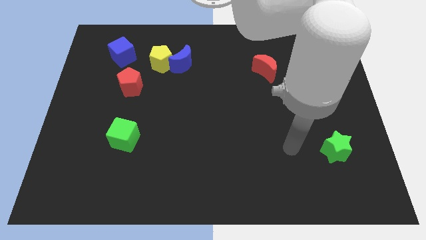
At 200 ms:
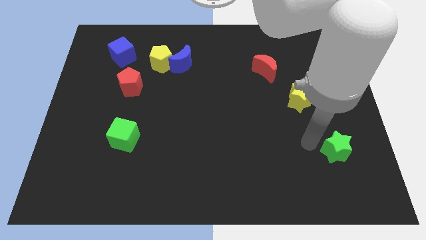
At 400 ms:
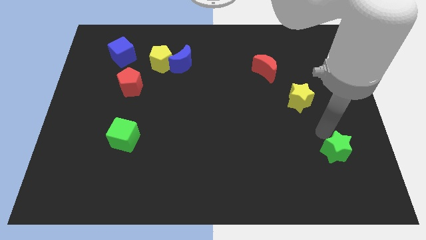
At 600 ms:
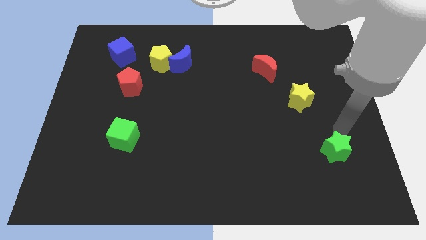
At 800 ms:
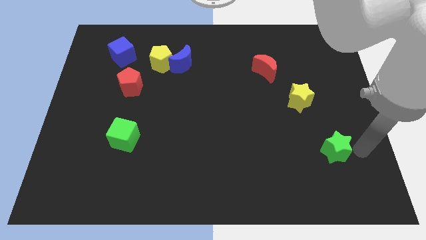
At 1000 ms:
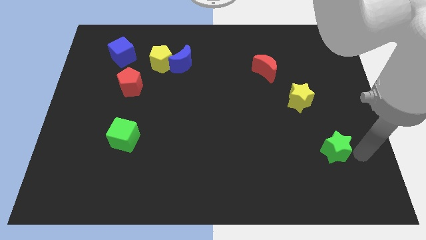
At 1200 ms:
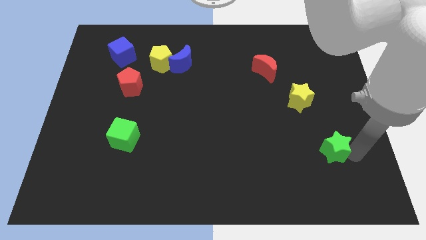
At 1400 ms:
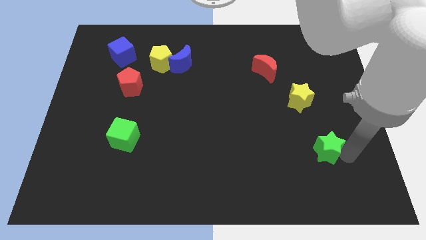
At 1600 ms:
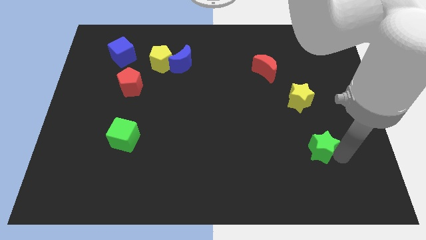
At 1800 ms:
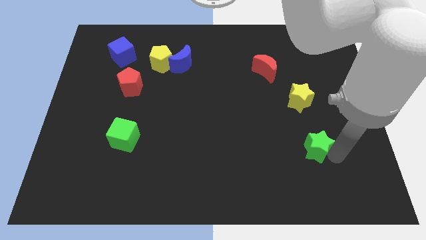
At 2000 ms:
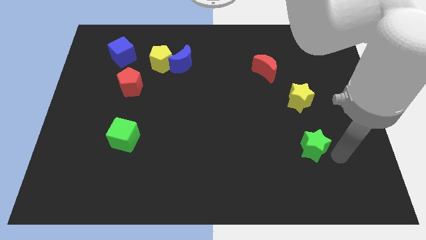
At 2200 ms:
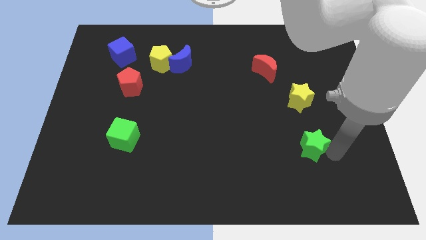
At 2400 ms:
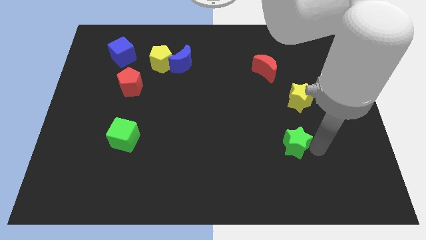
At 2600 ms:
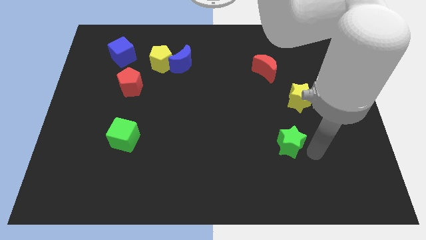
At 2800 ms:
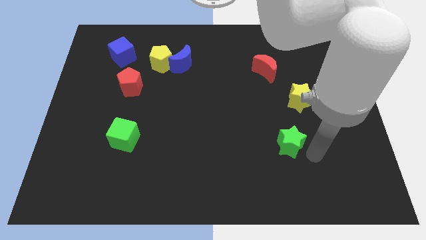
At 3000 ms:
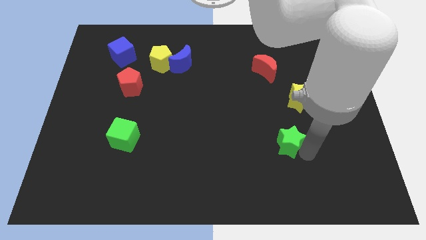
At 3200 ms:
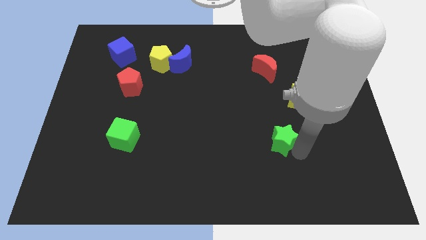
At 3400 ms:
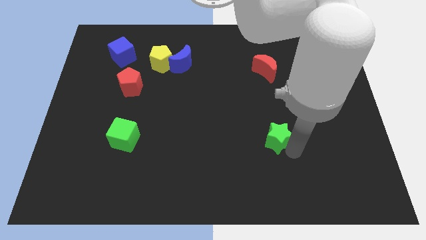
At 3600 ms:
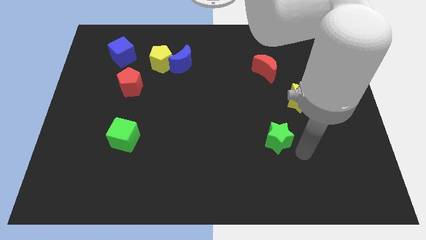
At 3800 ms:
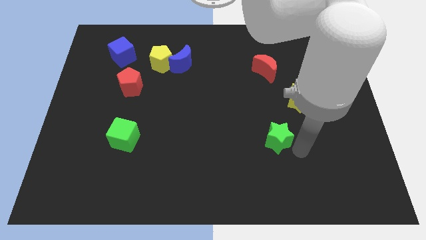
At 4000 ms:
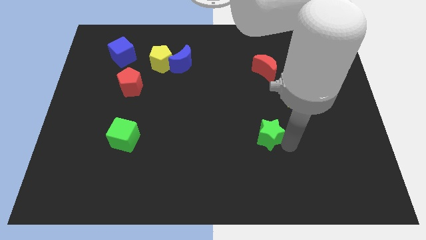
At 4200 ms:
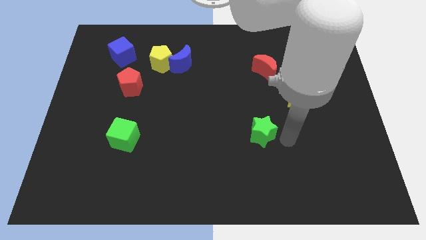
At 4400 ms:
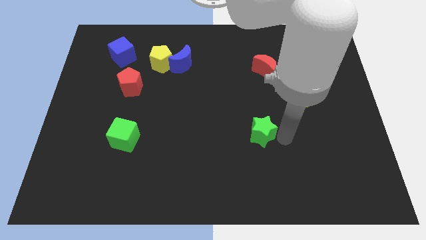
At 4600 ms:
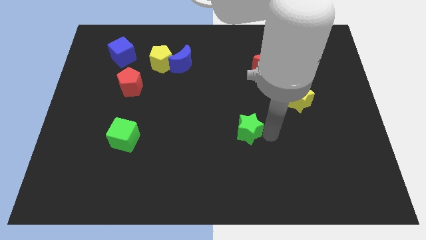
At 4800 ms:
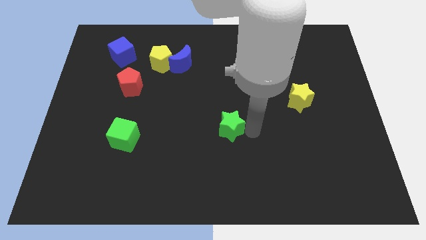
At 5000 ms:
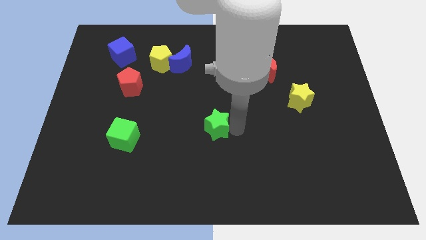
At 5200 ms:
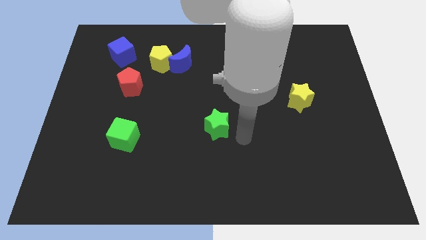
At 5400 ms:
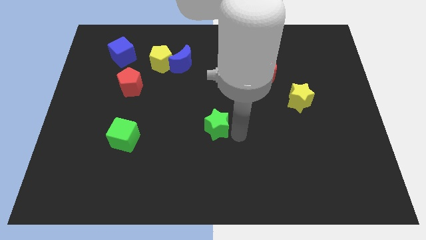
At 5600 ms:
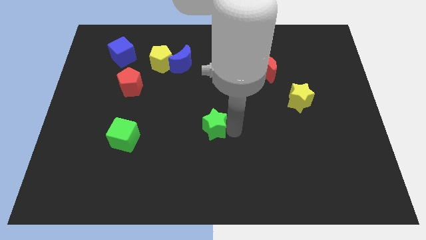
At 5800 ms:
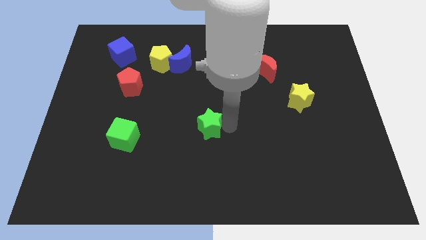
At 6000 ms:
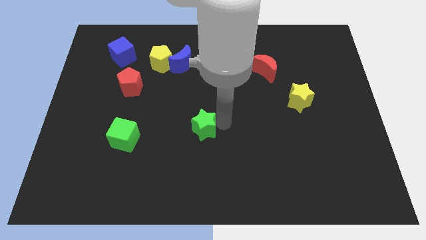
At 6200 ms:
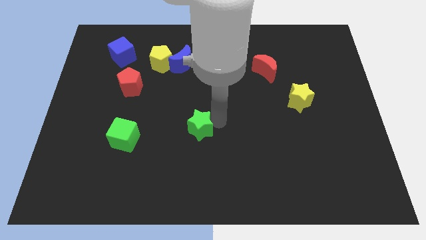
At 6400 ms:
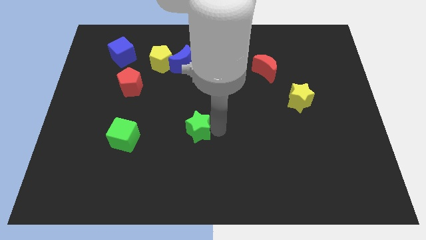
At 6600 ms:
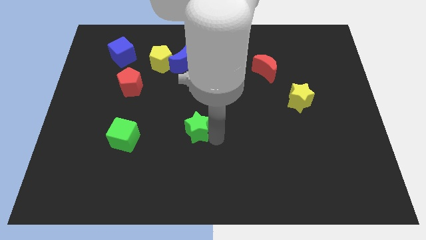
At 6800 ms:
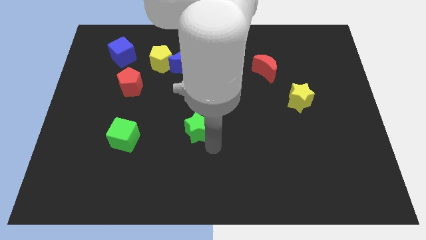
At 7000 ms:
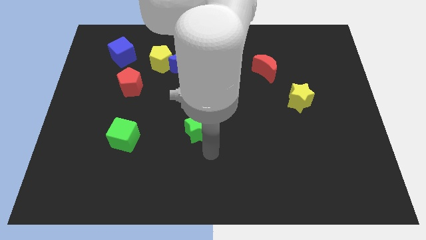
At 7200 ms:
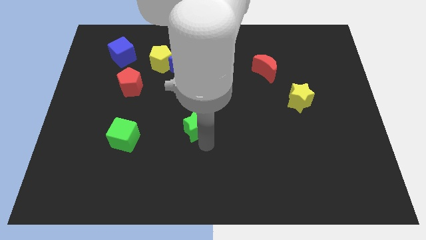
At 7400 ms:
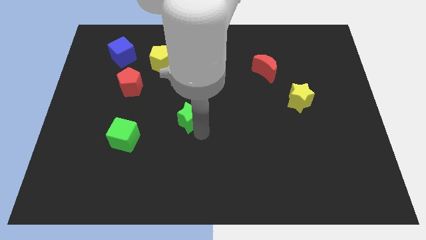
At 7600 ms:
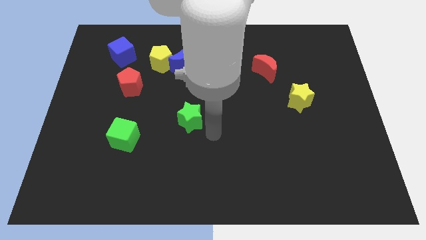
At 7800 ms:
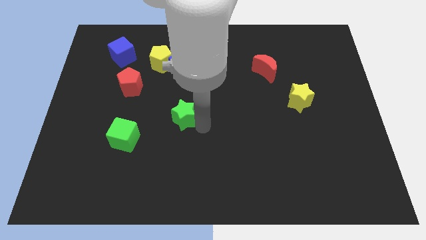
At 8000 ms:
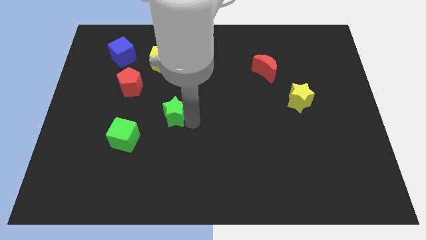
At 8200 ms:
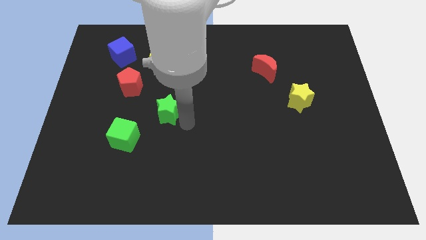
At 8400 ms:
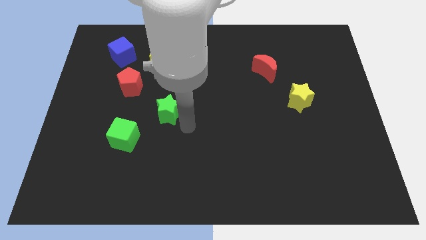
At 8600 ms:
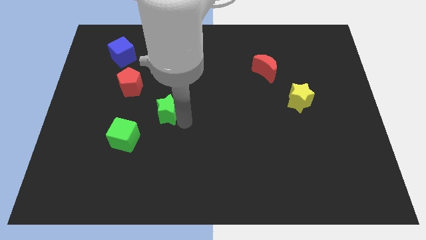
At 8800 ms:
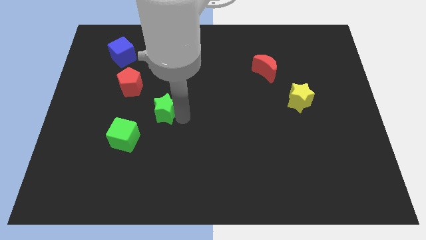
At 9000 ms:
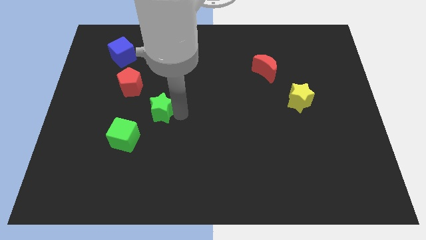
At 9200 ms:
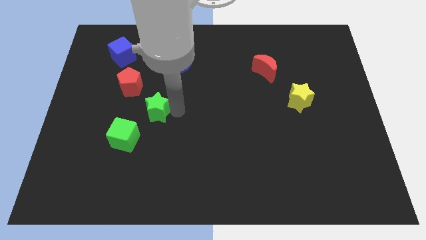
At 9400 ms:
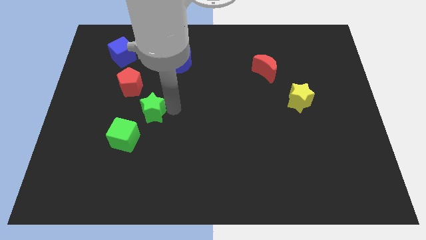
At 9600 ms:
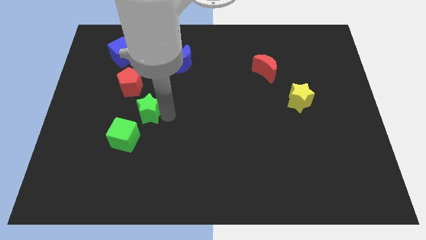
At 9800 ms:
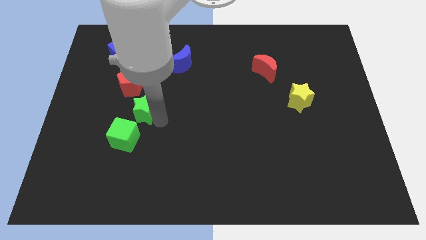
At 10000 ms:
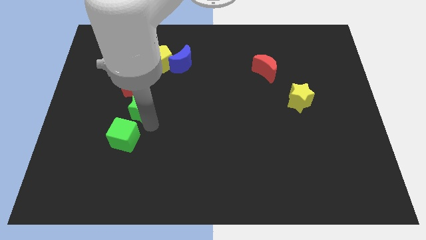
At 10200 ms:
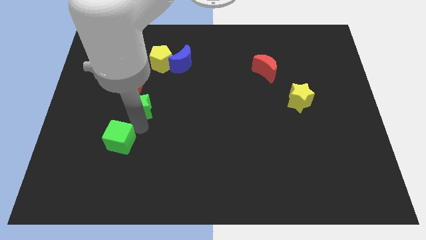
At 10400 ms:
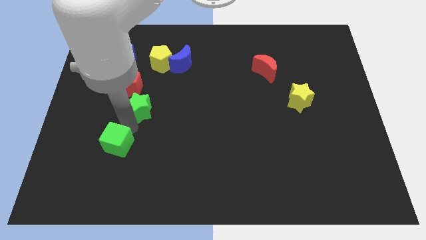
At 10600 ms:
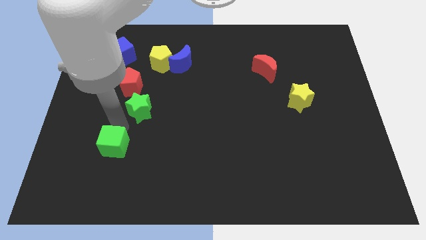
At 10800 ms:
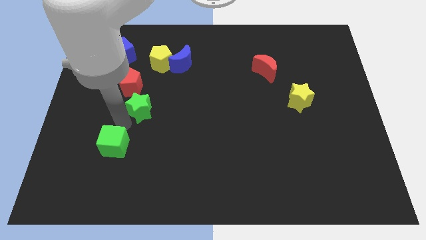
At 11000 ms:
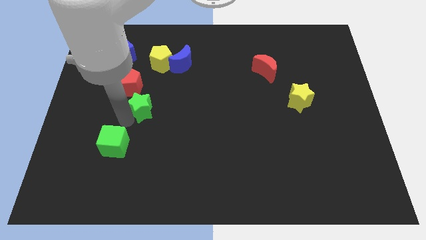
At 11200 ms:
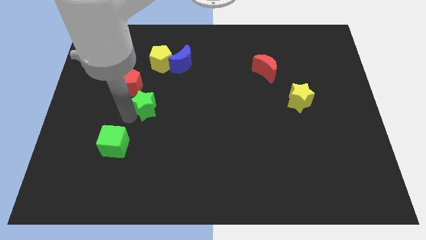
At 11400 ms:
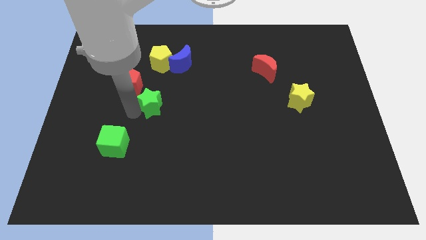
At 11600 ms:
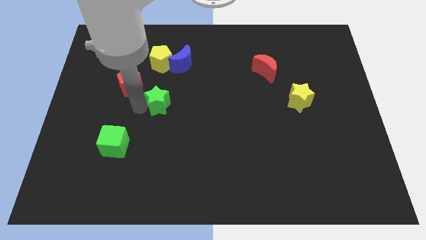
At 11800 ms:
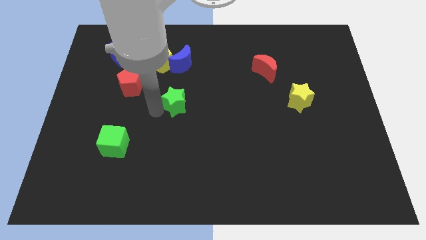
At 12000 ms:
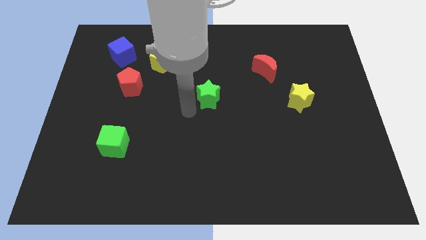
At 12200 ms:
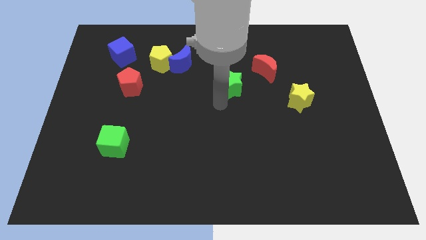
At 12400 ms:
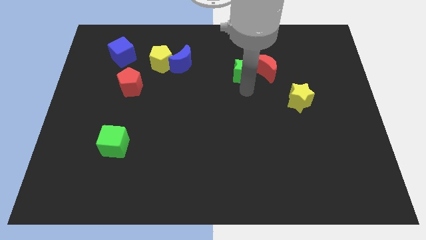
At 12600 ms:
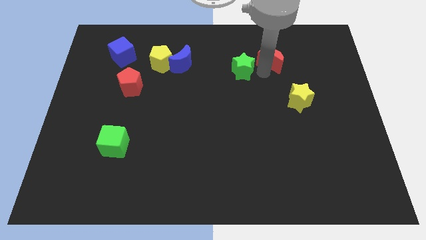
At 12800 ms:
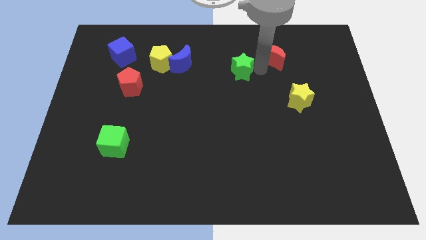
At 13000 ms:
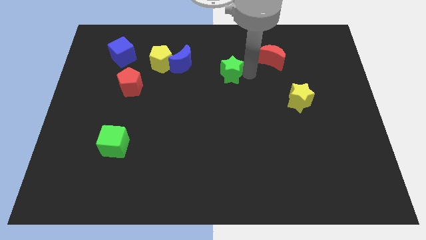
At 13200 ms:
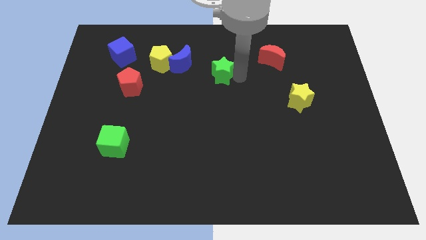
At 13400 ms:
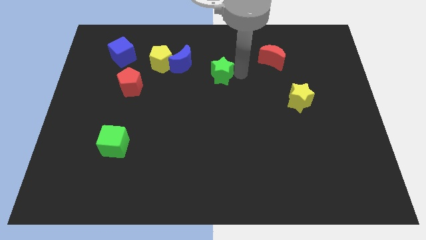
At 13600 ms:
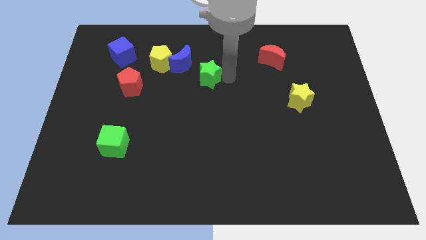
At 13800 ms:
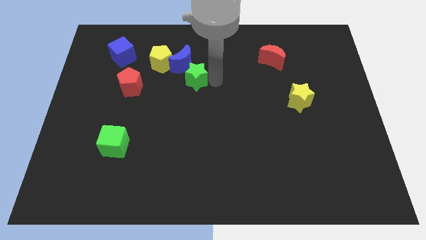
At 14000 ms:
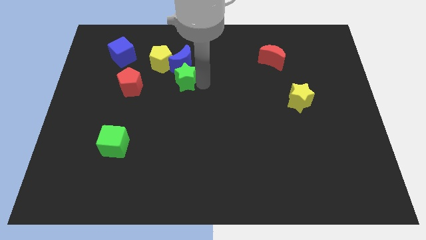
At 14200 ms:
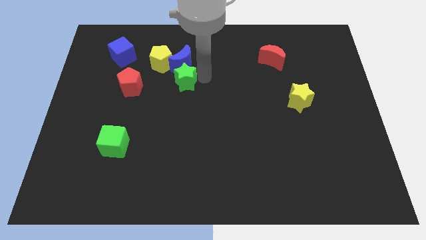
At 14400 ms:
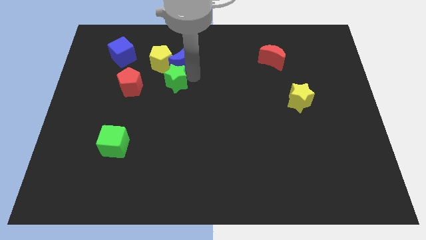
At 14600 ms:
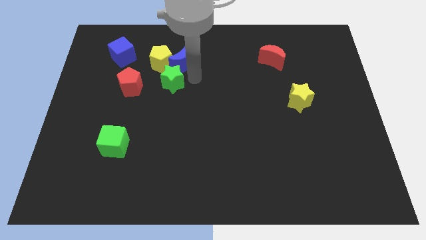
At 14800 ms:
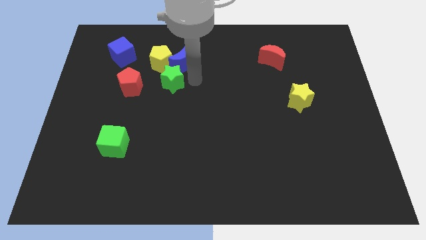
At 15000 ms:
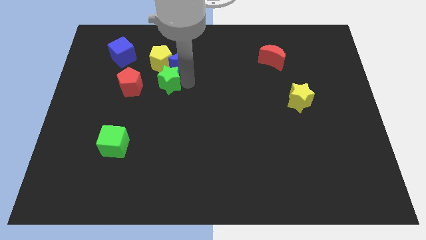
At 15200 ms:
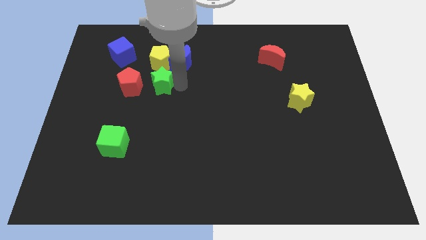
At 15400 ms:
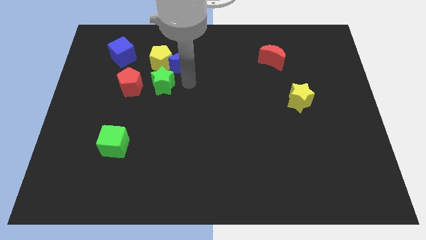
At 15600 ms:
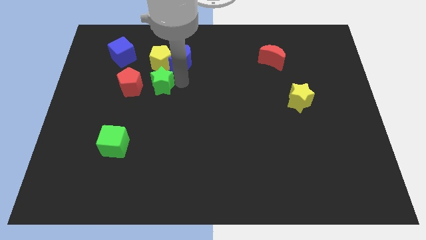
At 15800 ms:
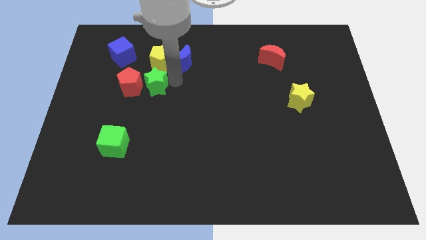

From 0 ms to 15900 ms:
put the green star to the red pentagon
